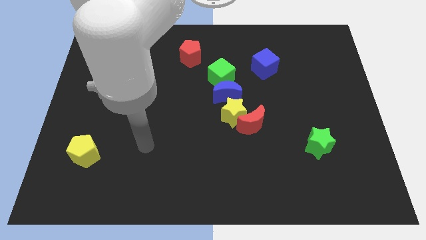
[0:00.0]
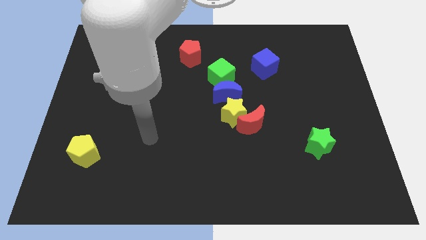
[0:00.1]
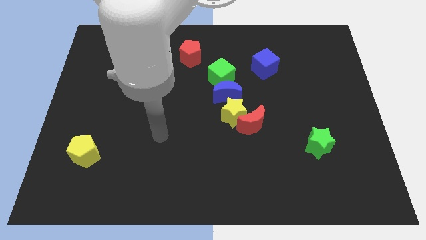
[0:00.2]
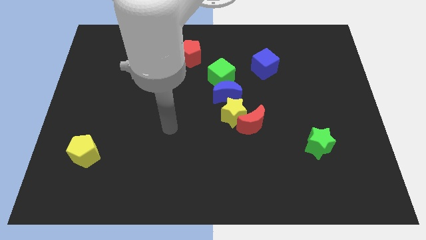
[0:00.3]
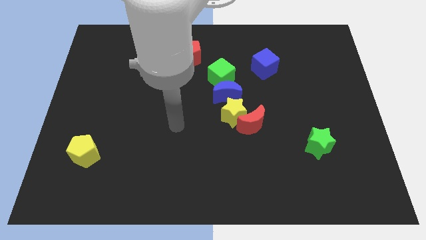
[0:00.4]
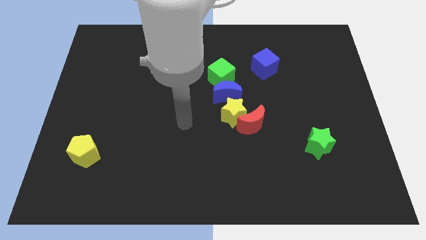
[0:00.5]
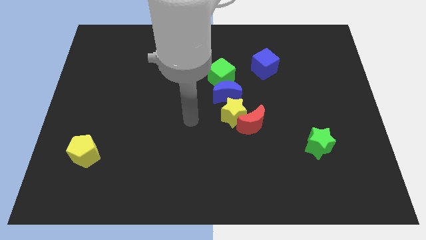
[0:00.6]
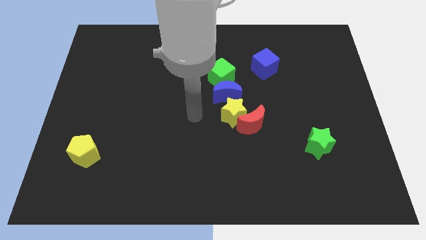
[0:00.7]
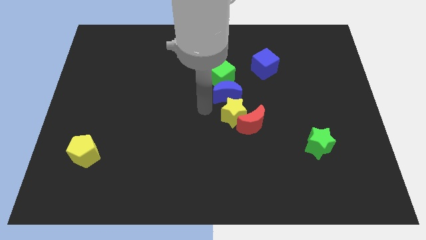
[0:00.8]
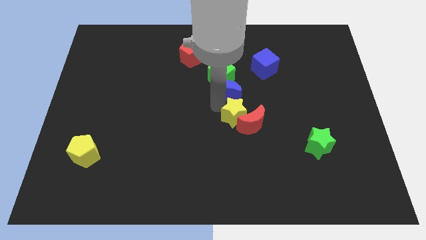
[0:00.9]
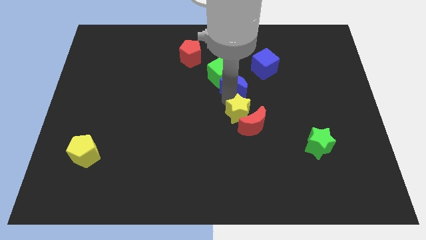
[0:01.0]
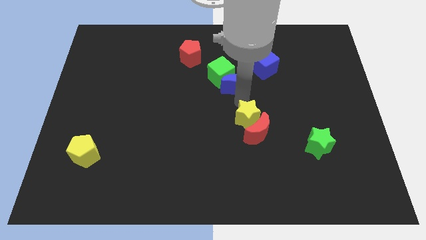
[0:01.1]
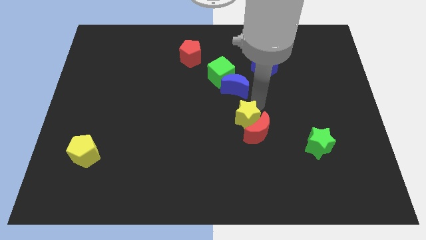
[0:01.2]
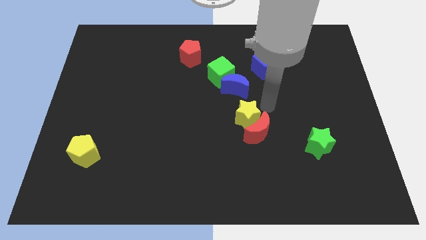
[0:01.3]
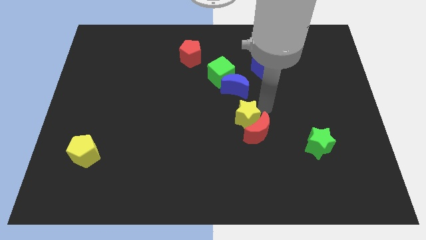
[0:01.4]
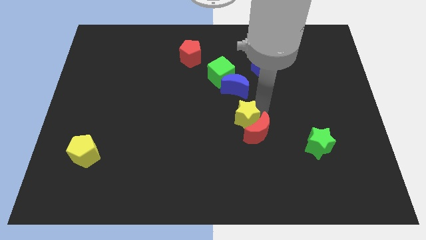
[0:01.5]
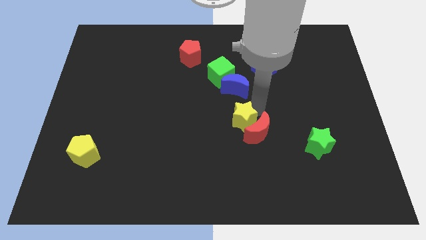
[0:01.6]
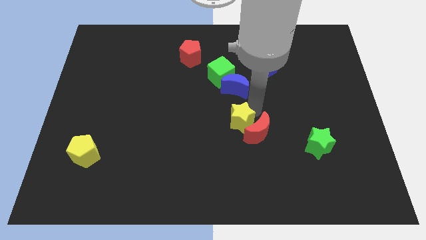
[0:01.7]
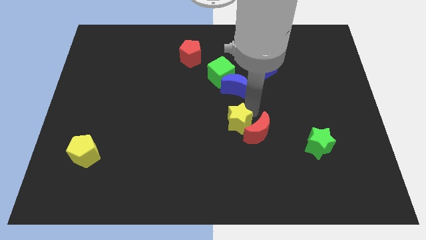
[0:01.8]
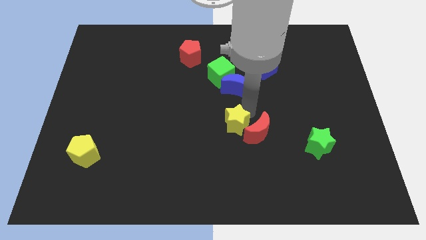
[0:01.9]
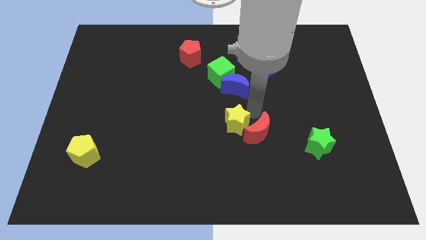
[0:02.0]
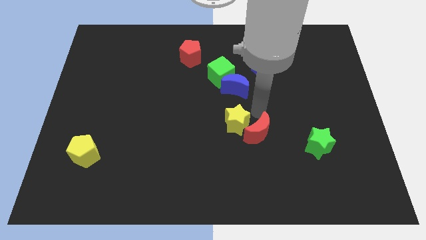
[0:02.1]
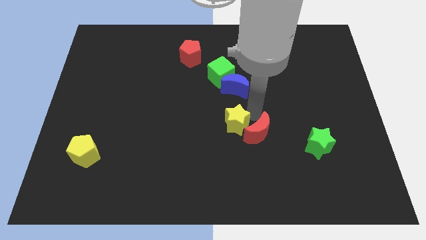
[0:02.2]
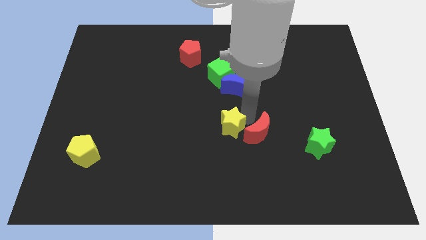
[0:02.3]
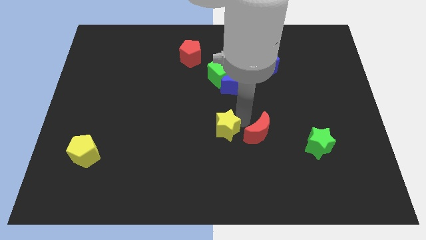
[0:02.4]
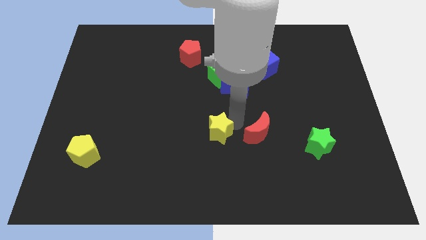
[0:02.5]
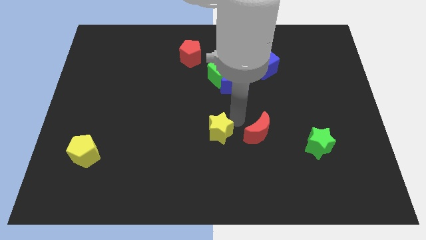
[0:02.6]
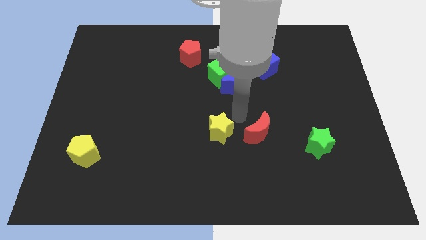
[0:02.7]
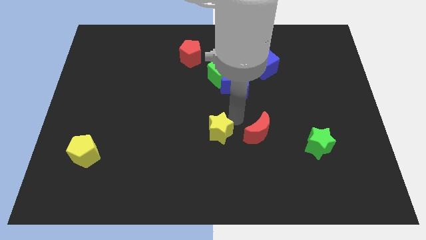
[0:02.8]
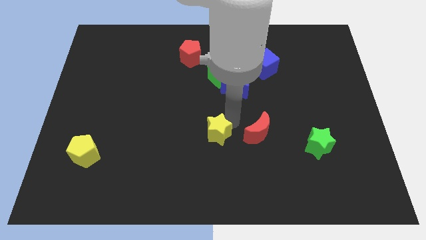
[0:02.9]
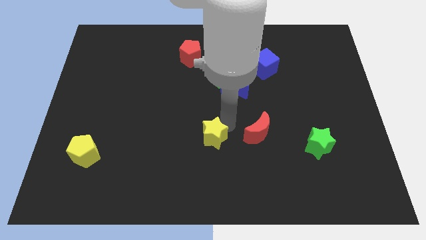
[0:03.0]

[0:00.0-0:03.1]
separate the yellow star from the red moon and blue moon

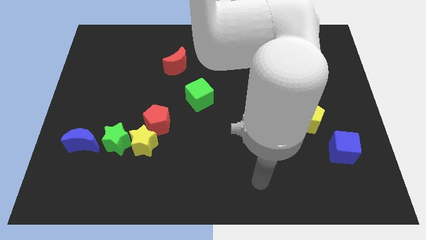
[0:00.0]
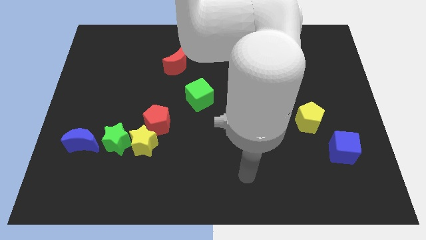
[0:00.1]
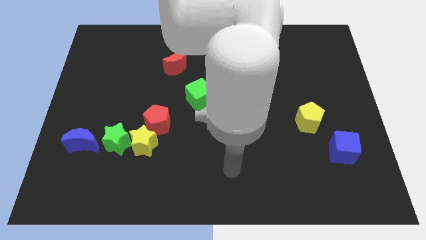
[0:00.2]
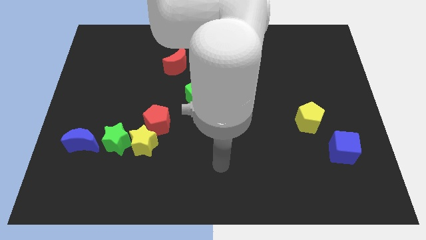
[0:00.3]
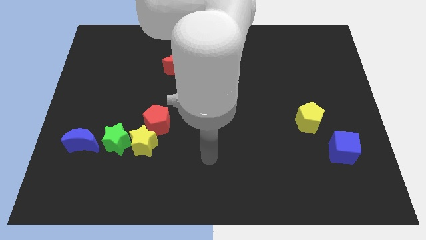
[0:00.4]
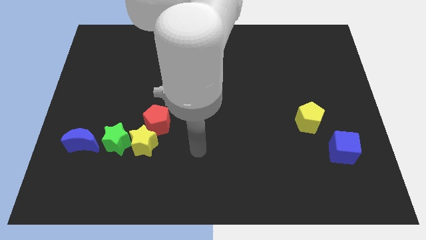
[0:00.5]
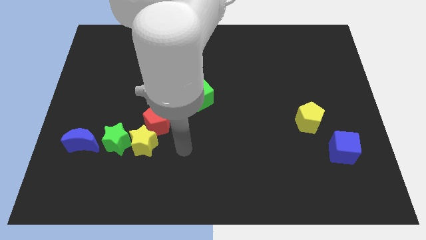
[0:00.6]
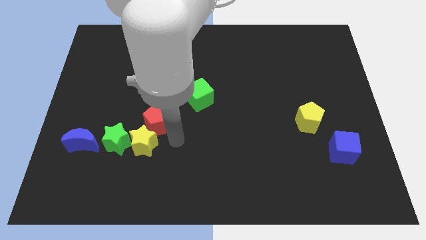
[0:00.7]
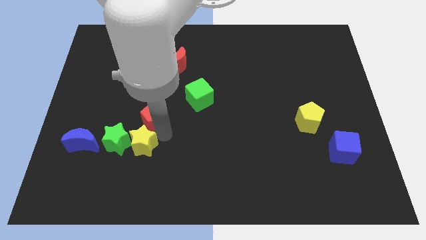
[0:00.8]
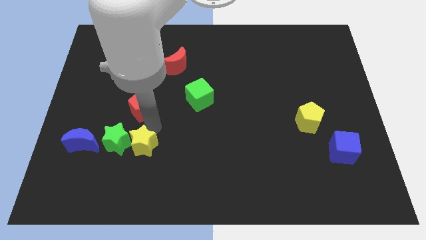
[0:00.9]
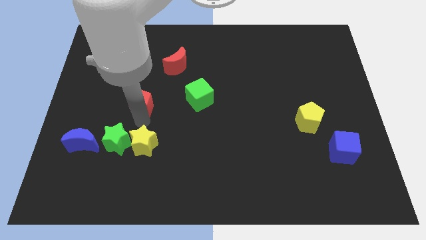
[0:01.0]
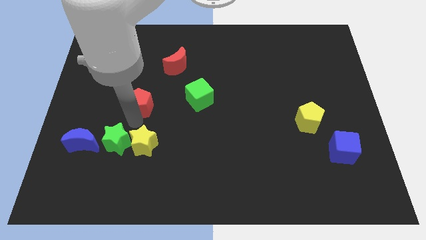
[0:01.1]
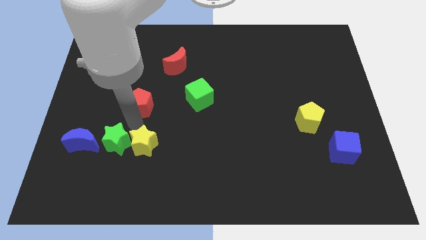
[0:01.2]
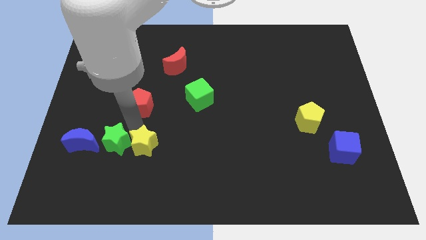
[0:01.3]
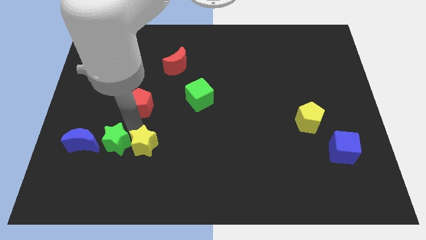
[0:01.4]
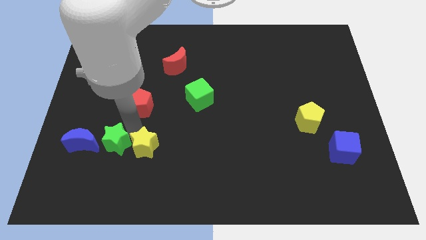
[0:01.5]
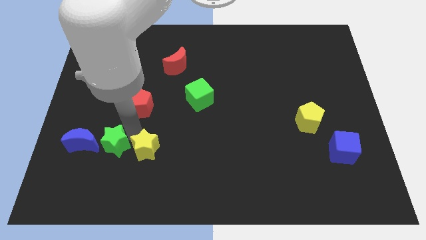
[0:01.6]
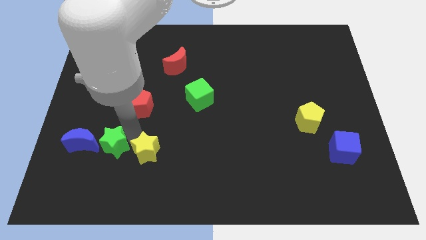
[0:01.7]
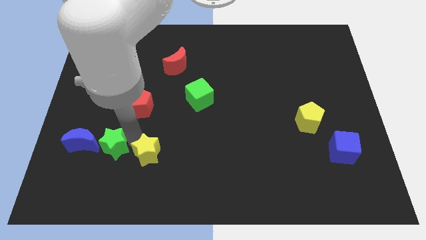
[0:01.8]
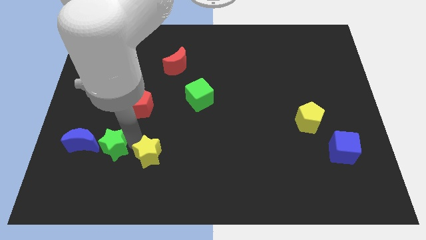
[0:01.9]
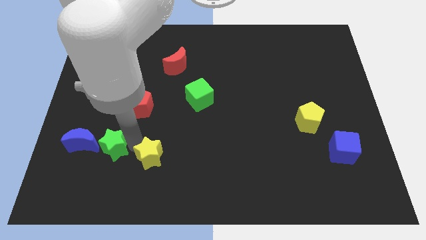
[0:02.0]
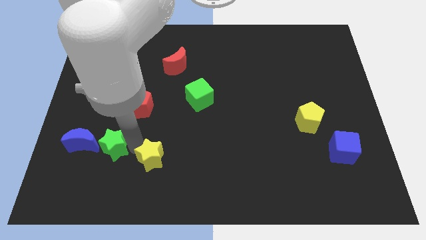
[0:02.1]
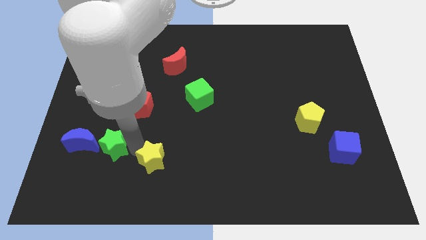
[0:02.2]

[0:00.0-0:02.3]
pull the yellow star apart from the green star and red pentagon

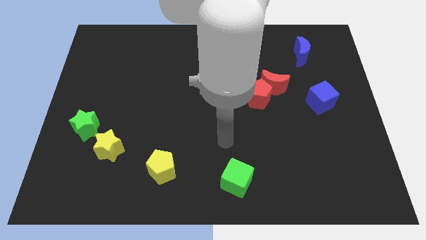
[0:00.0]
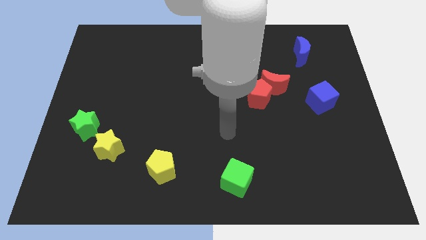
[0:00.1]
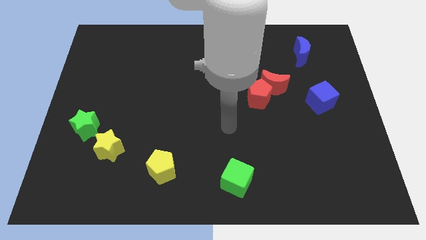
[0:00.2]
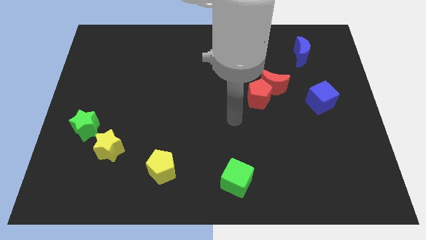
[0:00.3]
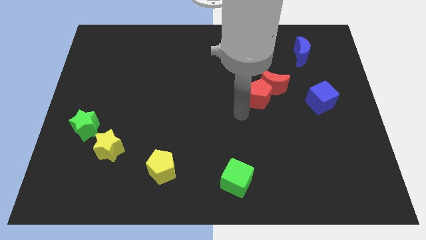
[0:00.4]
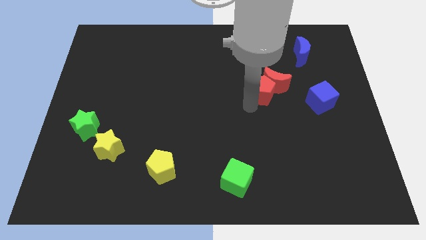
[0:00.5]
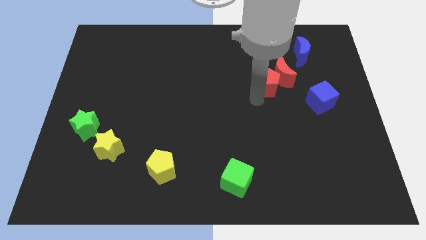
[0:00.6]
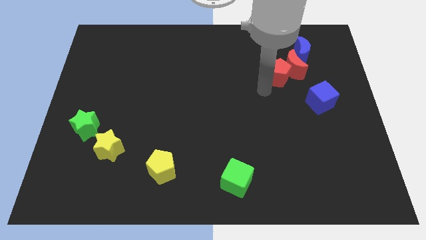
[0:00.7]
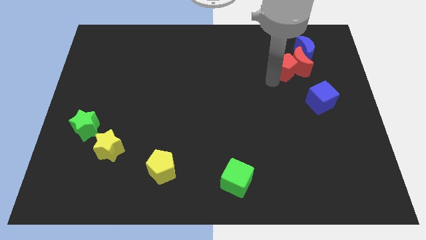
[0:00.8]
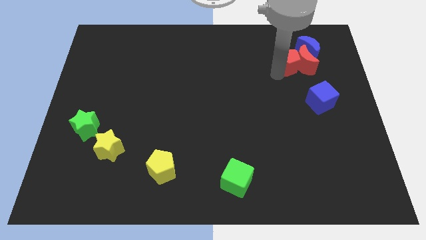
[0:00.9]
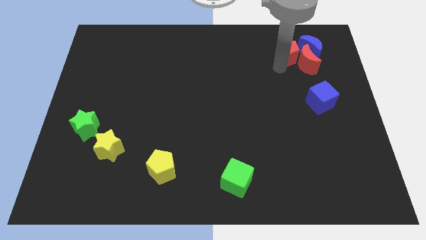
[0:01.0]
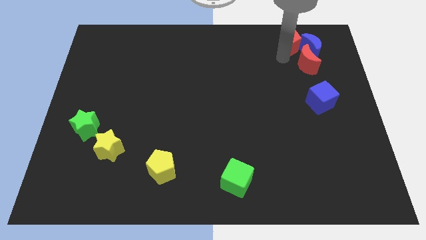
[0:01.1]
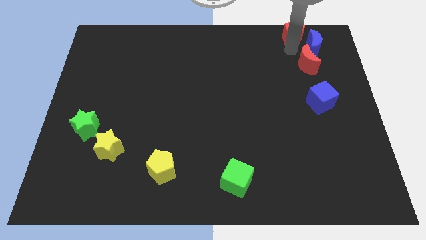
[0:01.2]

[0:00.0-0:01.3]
pull the red moon apart from the red pentagon

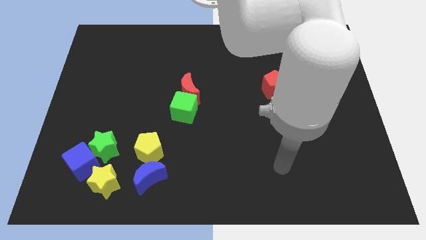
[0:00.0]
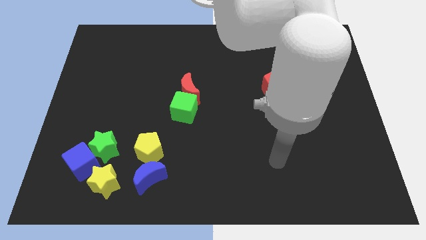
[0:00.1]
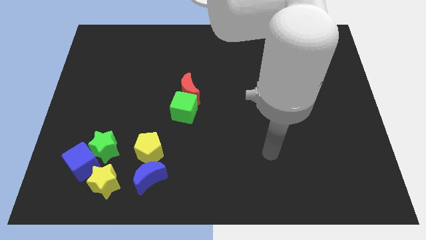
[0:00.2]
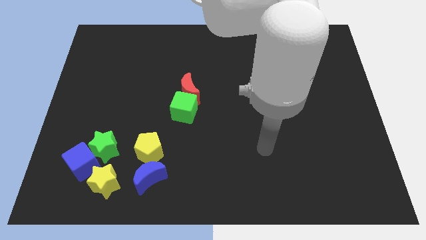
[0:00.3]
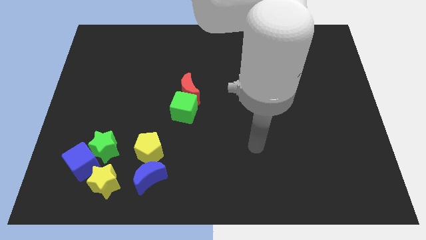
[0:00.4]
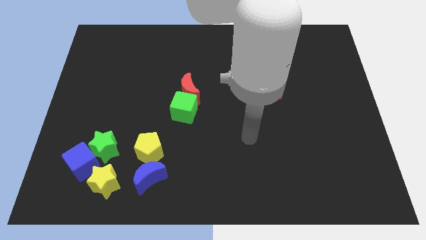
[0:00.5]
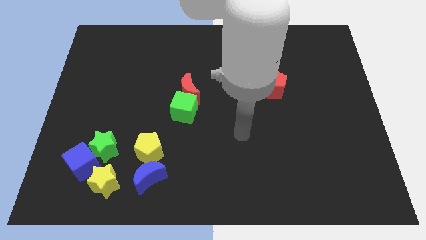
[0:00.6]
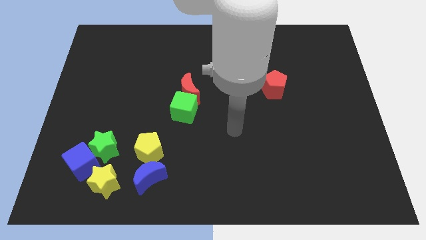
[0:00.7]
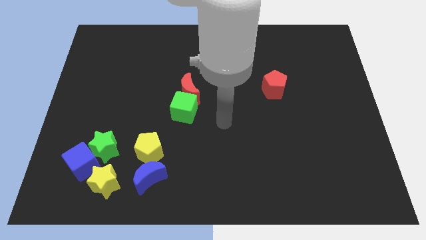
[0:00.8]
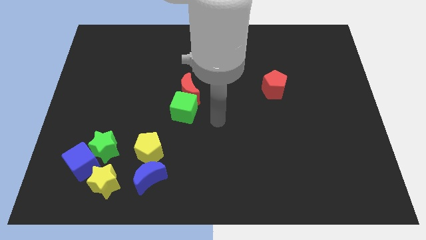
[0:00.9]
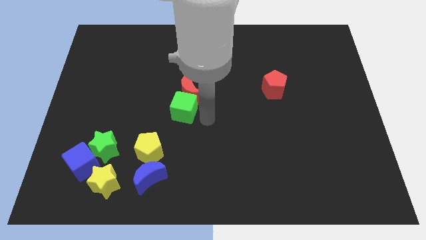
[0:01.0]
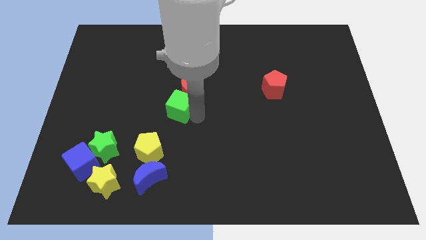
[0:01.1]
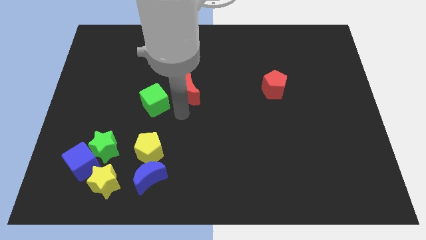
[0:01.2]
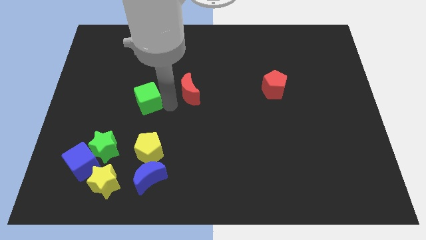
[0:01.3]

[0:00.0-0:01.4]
move the red moon away from the green cube

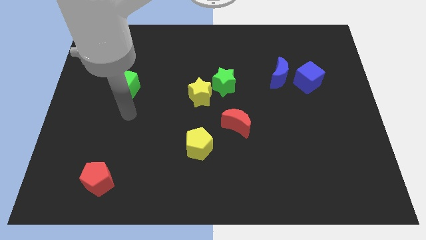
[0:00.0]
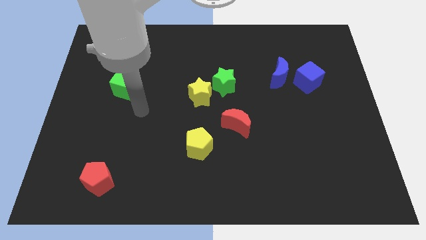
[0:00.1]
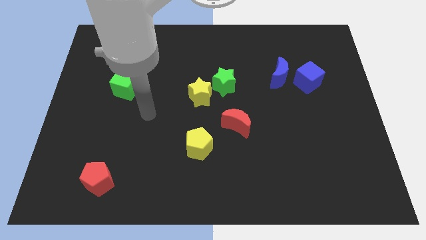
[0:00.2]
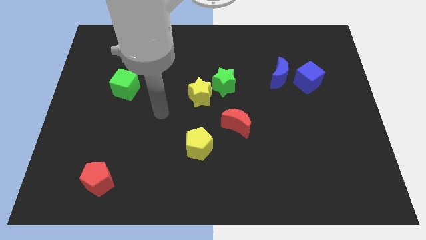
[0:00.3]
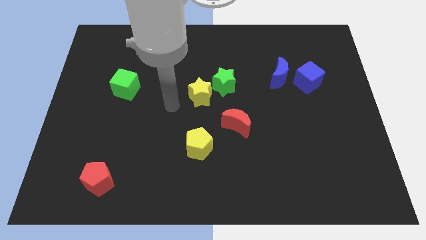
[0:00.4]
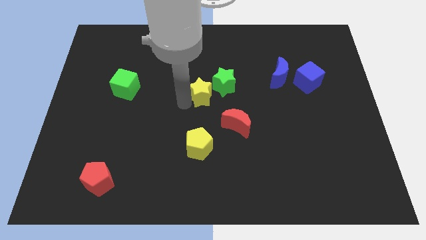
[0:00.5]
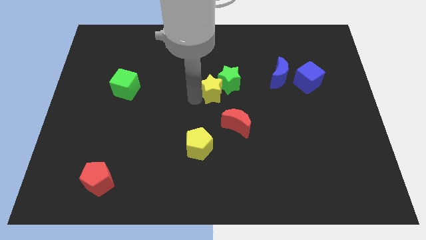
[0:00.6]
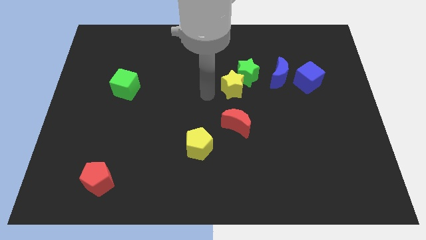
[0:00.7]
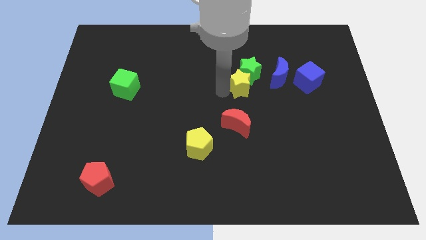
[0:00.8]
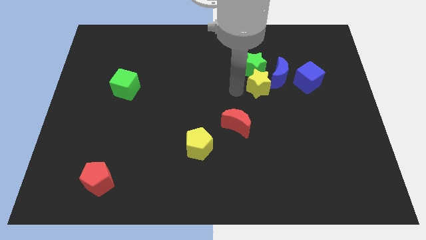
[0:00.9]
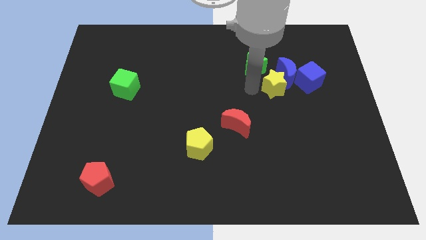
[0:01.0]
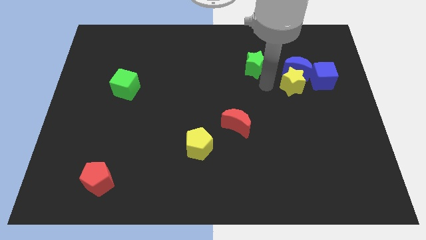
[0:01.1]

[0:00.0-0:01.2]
move the green star away from the yellow star
